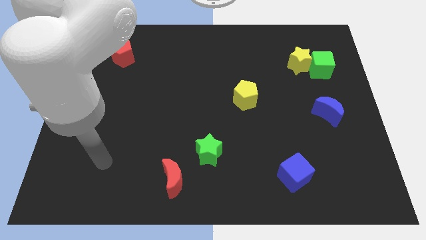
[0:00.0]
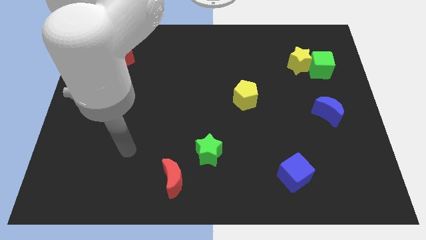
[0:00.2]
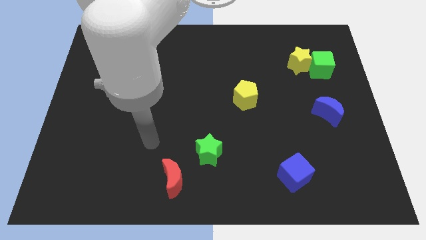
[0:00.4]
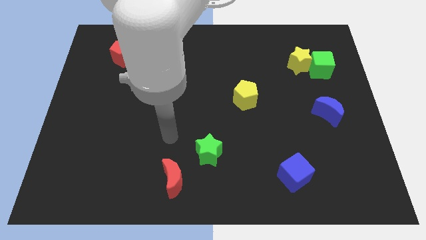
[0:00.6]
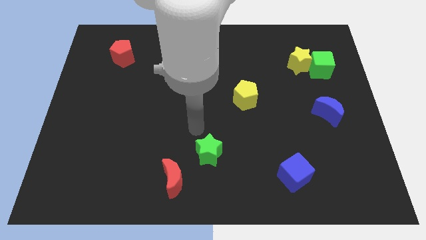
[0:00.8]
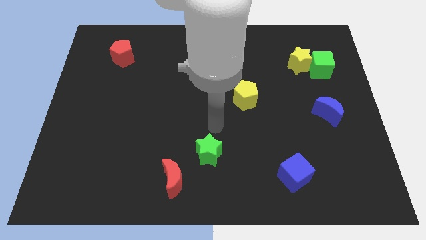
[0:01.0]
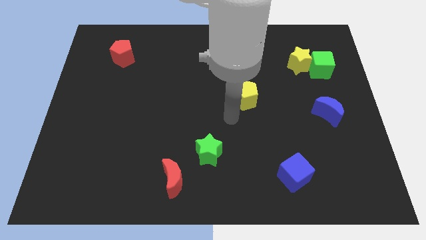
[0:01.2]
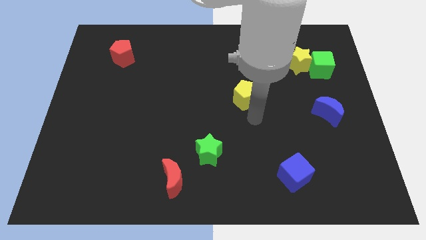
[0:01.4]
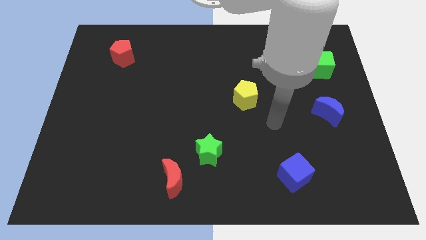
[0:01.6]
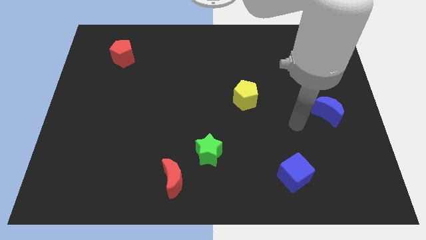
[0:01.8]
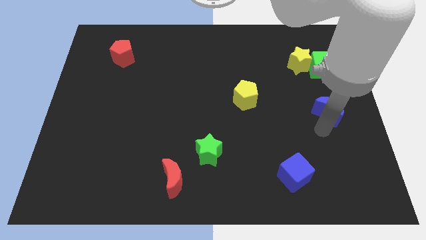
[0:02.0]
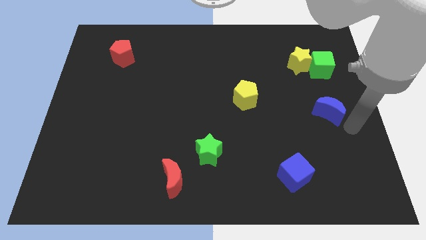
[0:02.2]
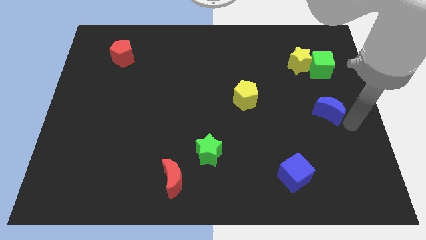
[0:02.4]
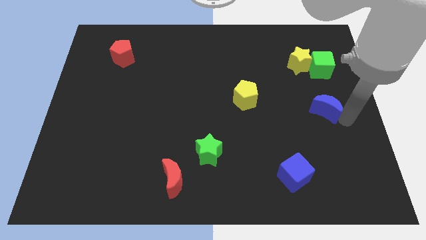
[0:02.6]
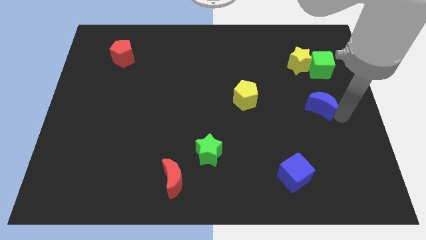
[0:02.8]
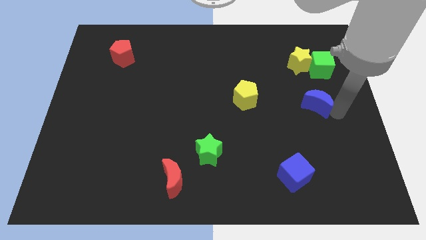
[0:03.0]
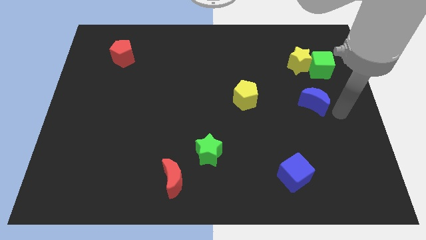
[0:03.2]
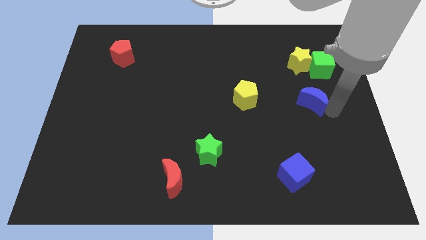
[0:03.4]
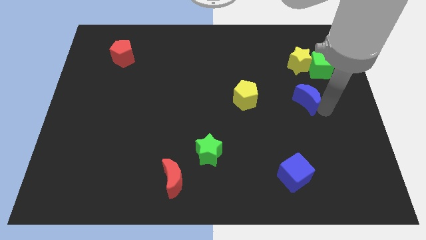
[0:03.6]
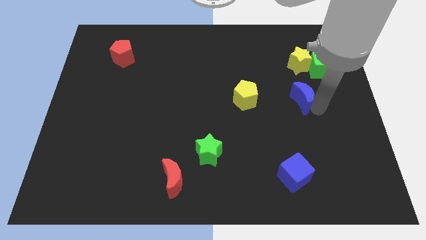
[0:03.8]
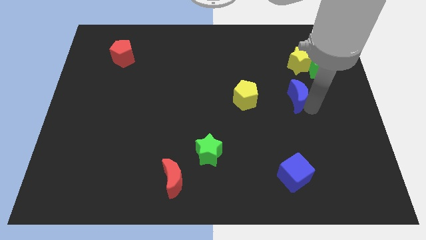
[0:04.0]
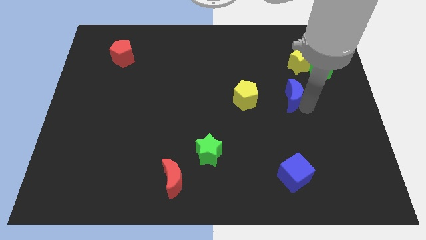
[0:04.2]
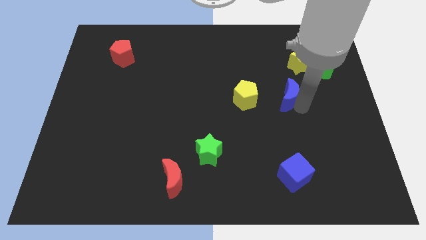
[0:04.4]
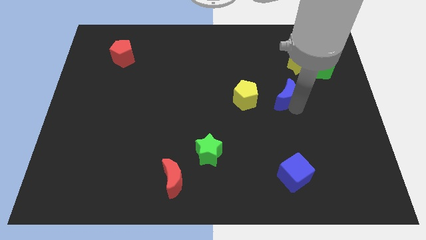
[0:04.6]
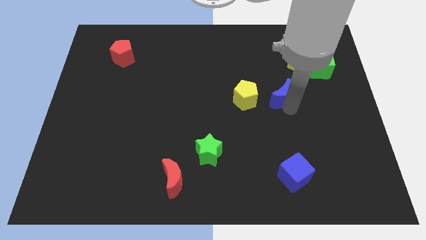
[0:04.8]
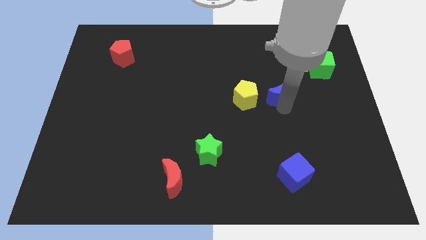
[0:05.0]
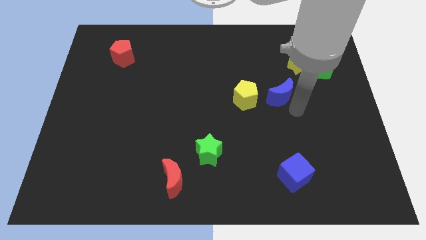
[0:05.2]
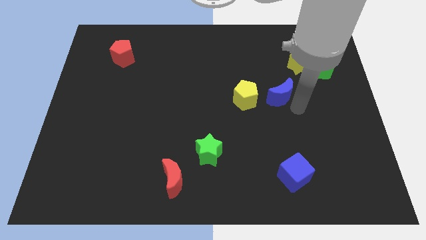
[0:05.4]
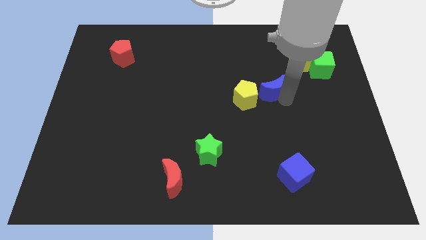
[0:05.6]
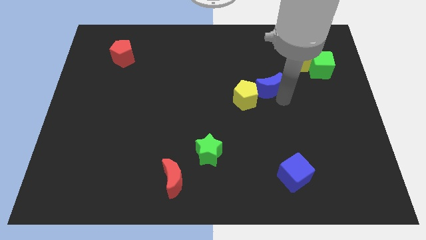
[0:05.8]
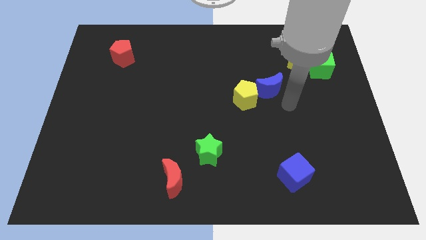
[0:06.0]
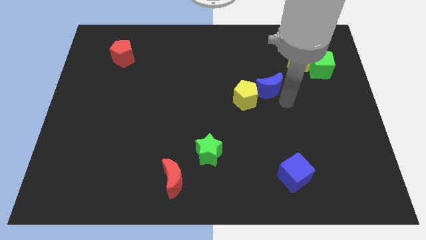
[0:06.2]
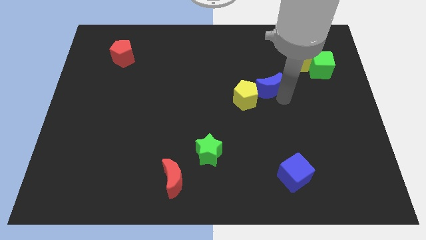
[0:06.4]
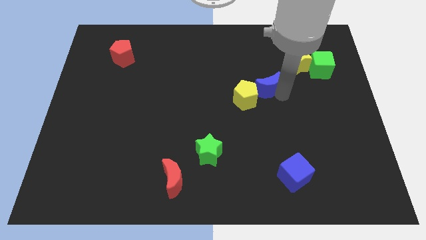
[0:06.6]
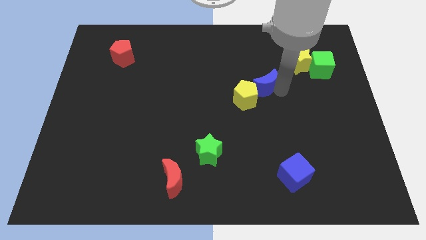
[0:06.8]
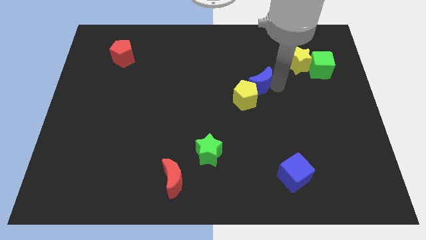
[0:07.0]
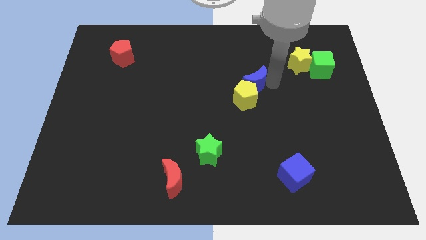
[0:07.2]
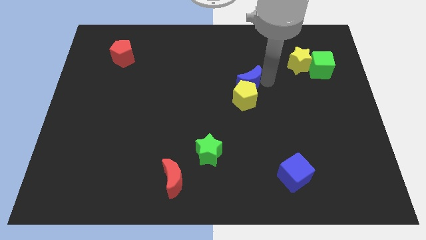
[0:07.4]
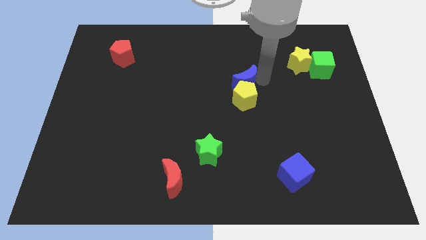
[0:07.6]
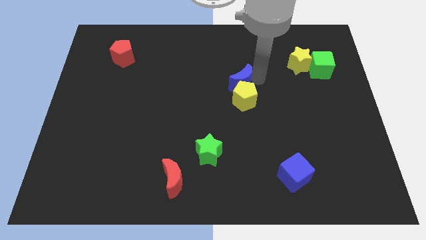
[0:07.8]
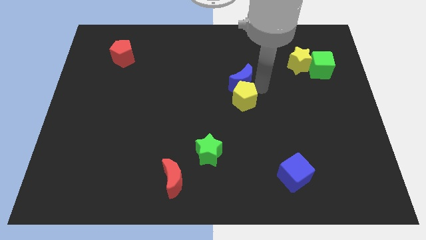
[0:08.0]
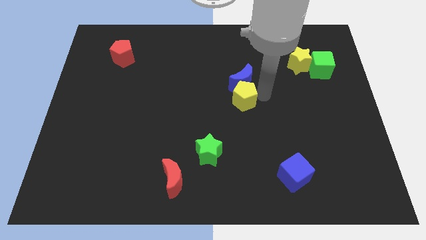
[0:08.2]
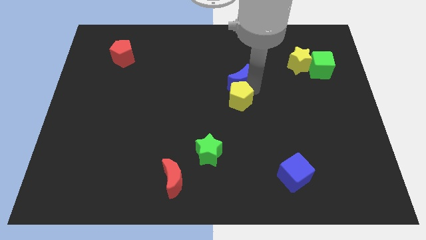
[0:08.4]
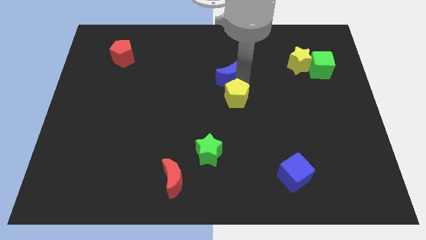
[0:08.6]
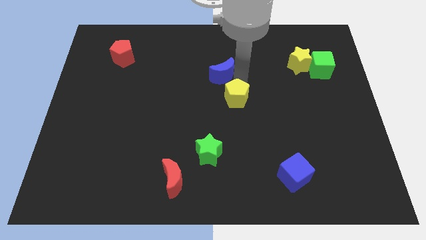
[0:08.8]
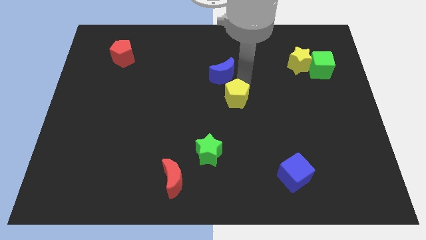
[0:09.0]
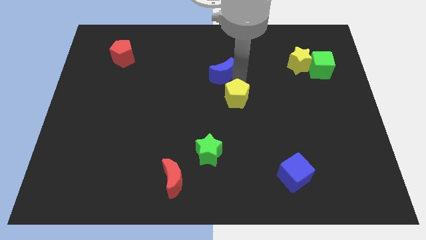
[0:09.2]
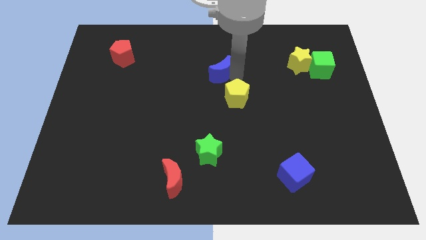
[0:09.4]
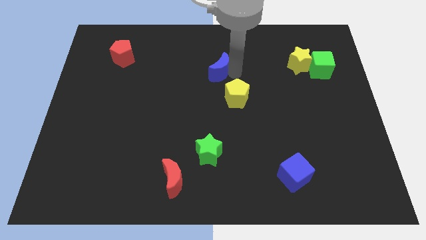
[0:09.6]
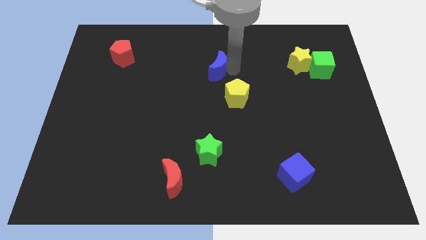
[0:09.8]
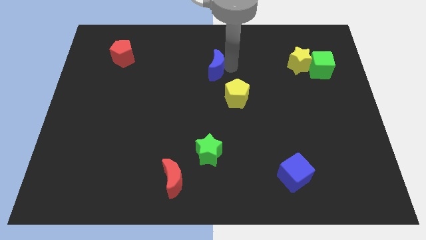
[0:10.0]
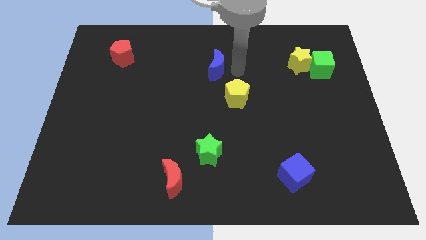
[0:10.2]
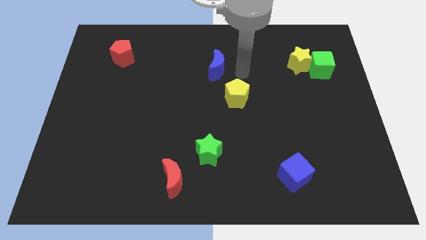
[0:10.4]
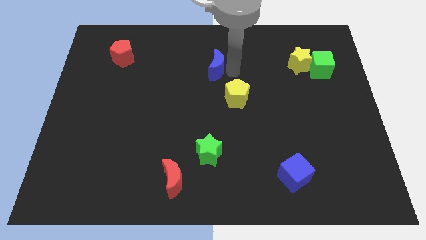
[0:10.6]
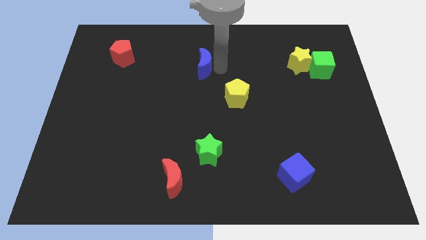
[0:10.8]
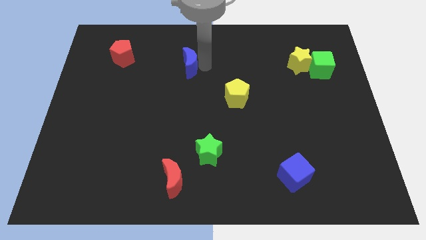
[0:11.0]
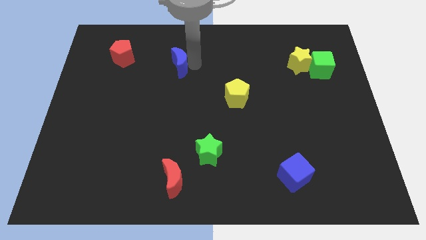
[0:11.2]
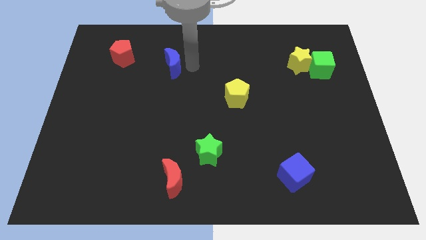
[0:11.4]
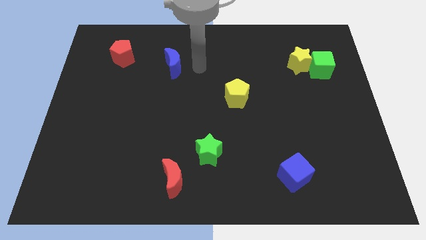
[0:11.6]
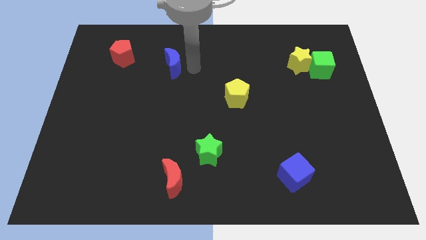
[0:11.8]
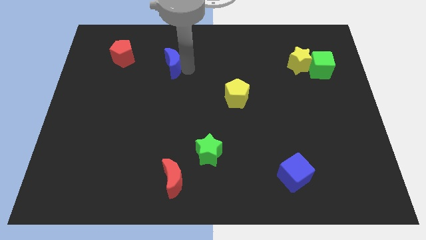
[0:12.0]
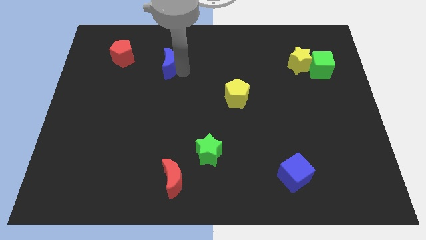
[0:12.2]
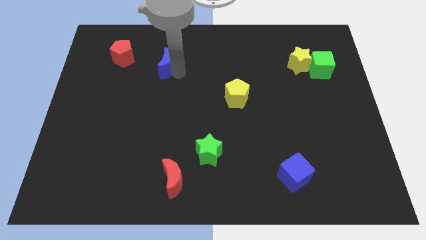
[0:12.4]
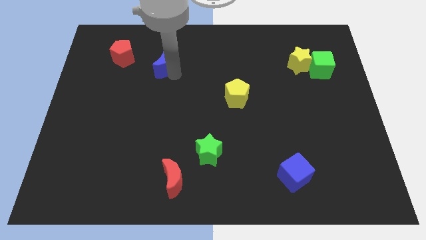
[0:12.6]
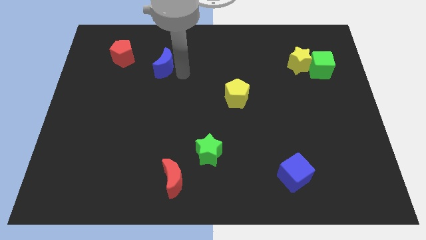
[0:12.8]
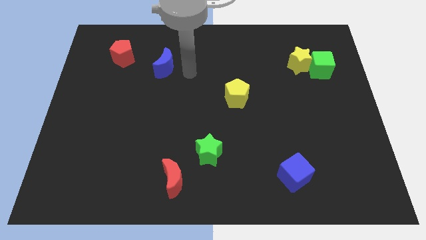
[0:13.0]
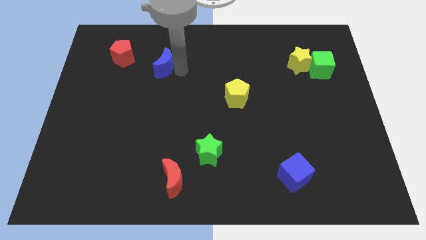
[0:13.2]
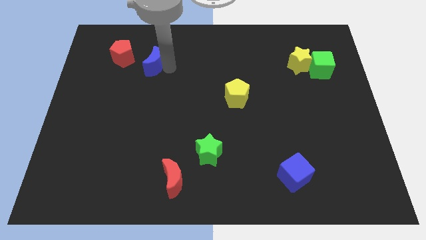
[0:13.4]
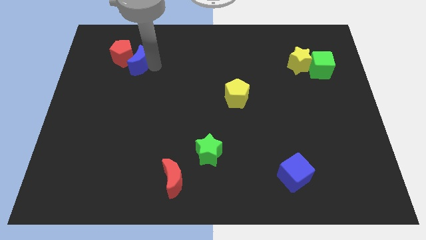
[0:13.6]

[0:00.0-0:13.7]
move the blue moon towards the red pentagon

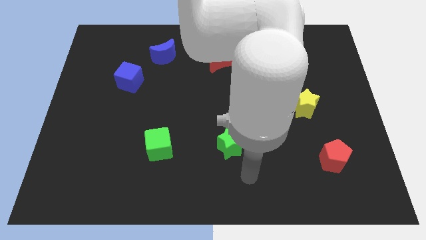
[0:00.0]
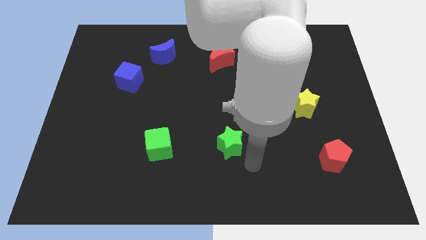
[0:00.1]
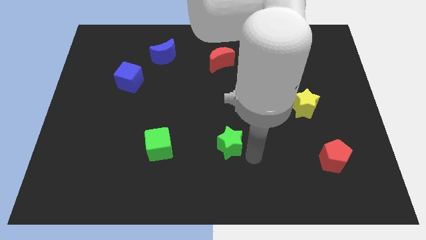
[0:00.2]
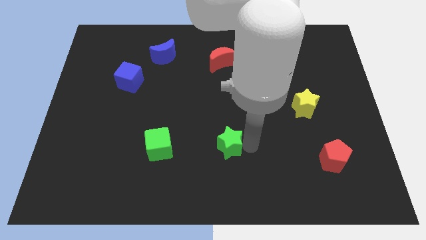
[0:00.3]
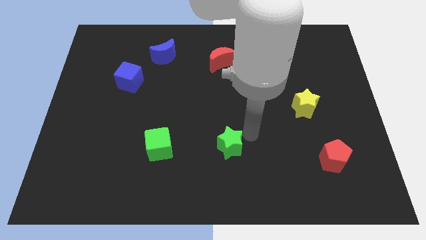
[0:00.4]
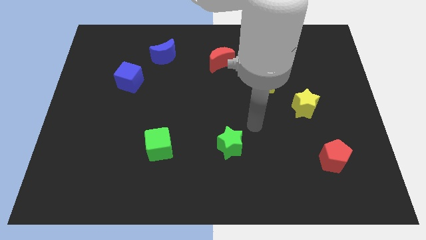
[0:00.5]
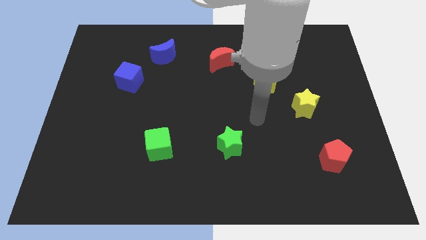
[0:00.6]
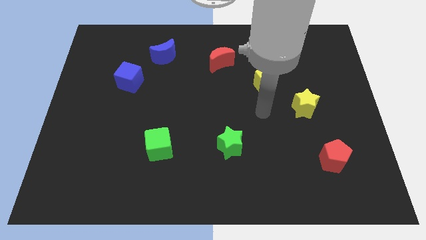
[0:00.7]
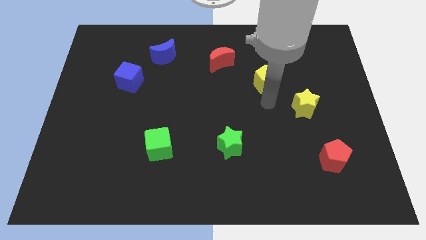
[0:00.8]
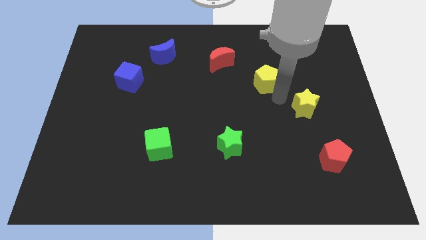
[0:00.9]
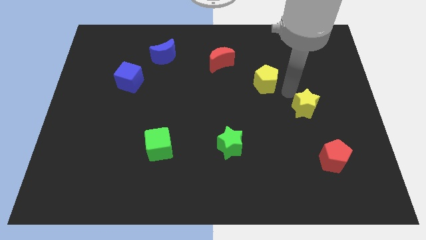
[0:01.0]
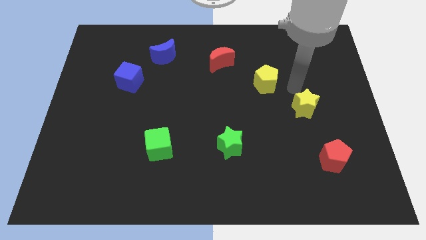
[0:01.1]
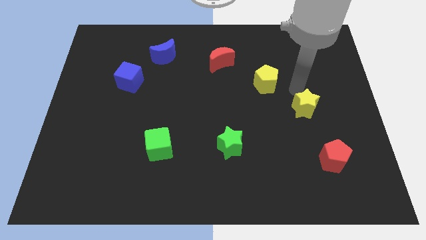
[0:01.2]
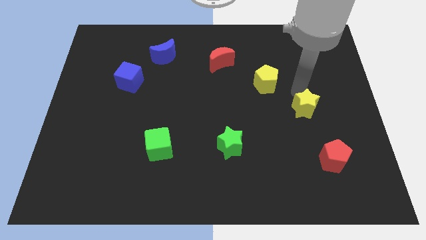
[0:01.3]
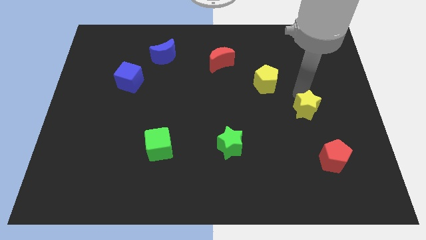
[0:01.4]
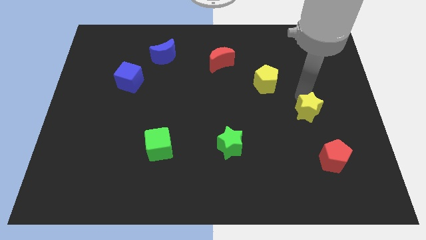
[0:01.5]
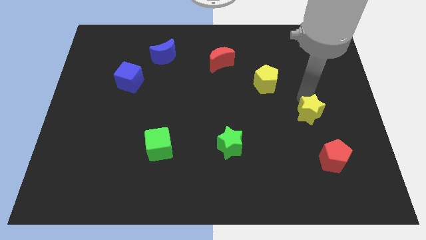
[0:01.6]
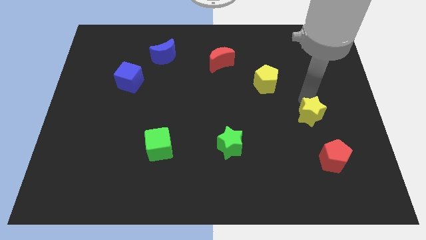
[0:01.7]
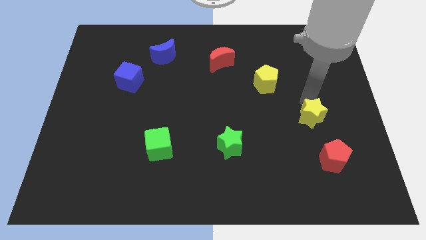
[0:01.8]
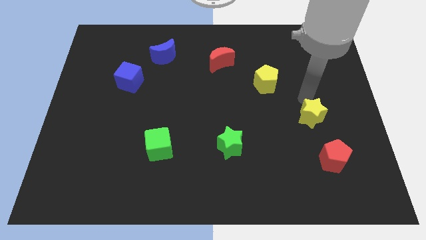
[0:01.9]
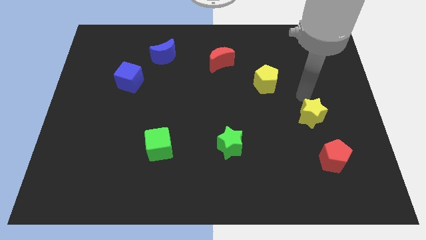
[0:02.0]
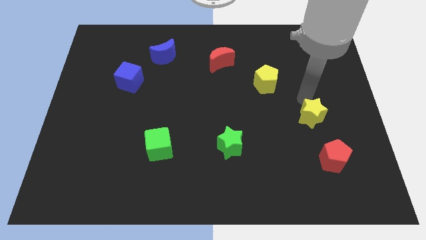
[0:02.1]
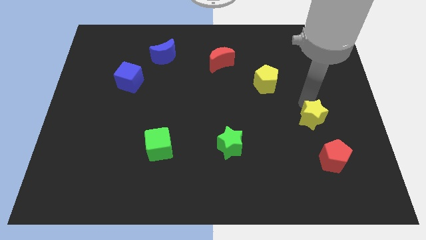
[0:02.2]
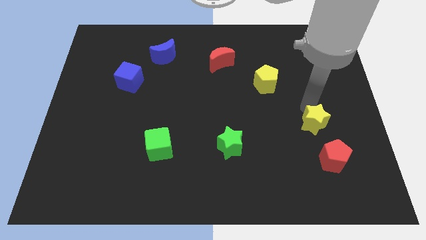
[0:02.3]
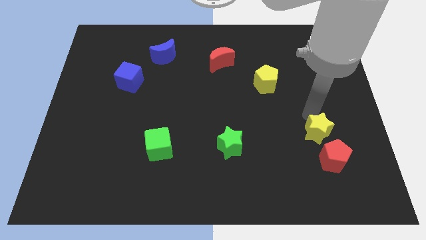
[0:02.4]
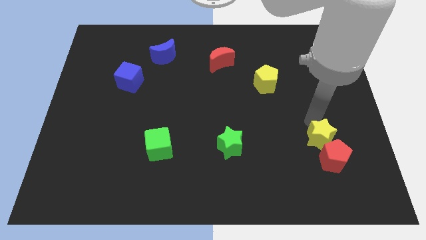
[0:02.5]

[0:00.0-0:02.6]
slide the yellow star towards the red pentagon
